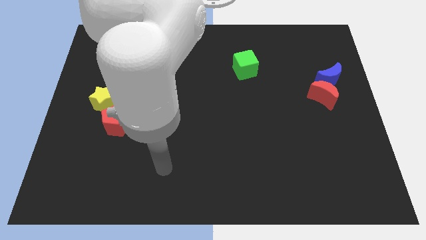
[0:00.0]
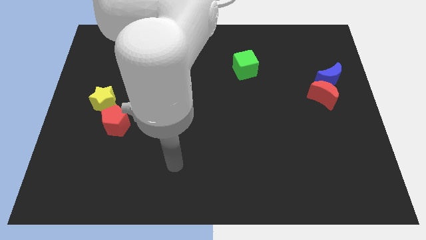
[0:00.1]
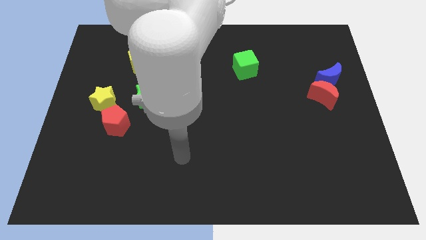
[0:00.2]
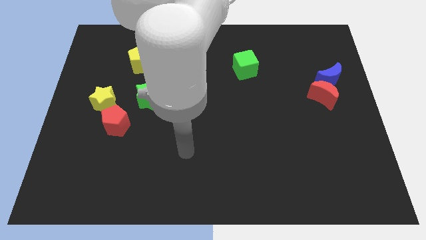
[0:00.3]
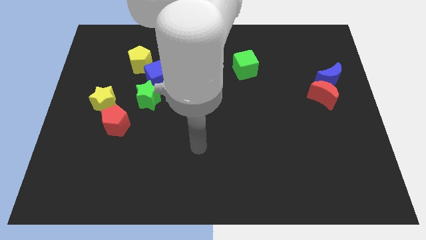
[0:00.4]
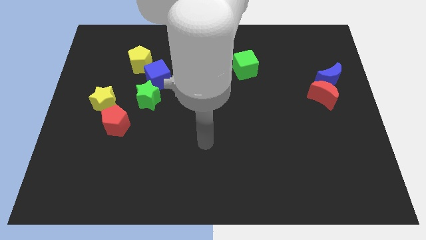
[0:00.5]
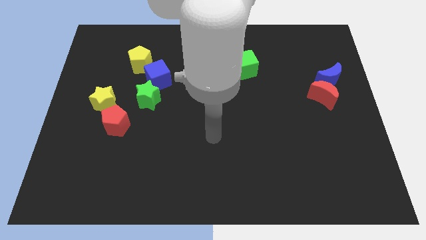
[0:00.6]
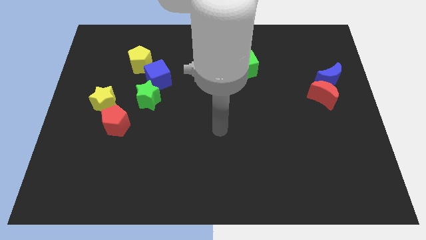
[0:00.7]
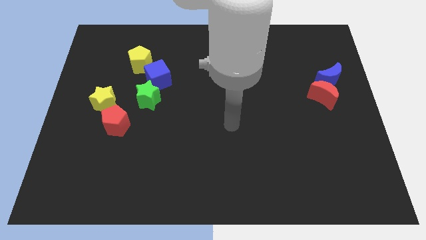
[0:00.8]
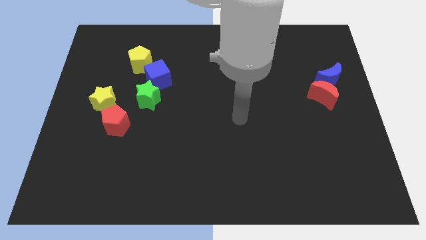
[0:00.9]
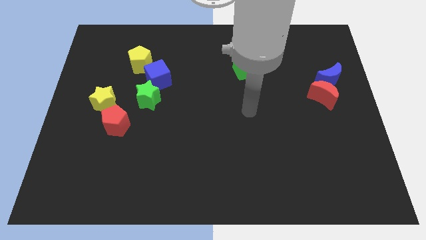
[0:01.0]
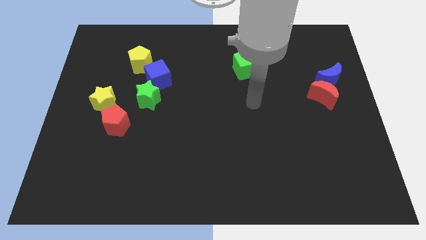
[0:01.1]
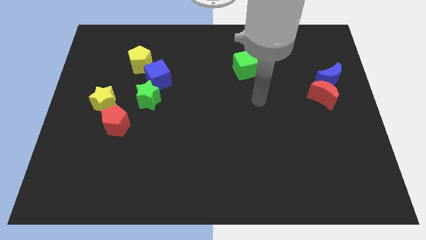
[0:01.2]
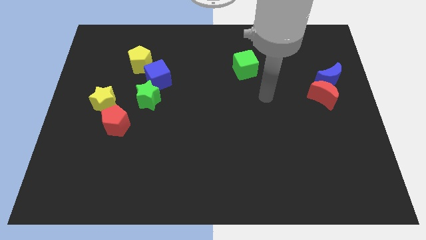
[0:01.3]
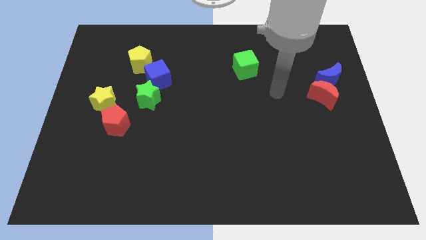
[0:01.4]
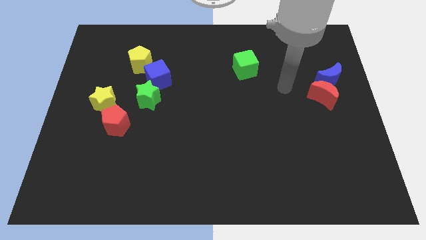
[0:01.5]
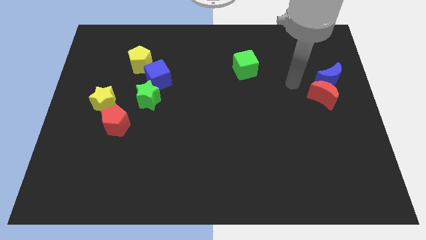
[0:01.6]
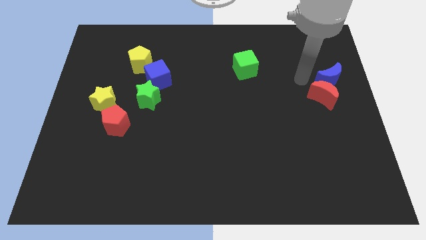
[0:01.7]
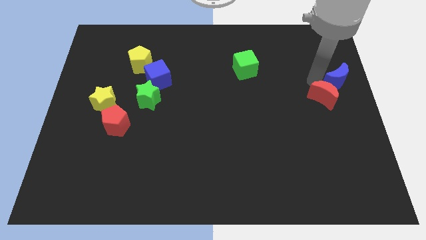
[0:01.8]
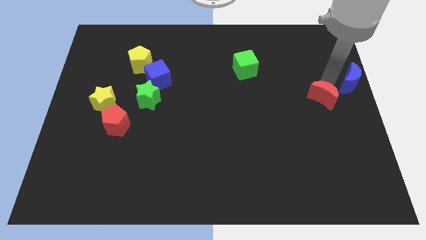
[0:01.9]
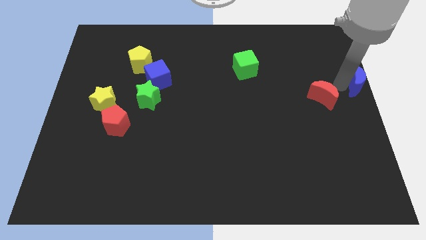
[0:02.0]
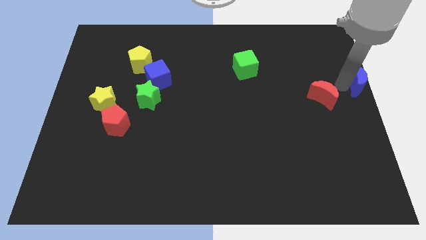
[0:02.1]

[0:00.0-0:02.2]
separate the red moon from the blue moon

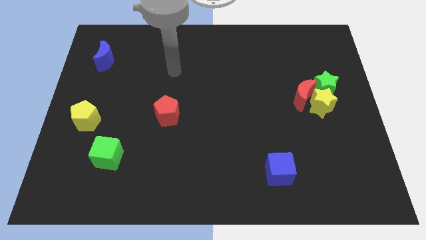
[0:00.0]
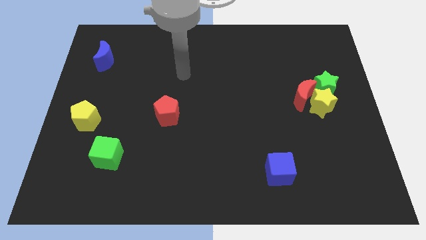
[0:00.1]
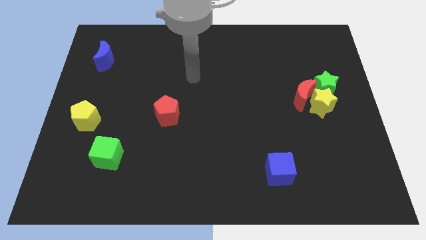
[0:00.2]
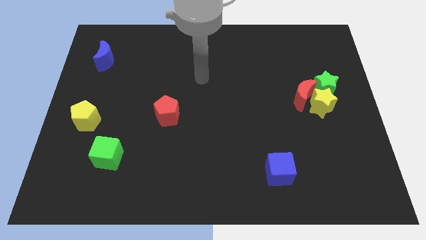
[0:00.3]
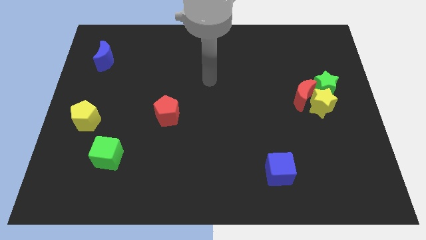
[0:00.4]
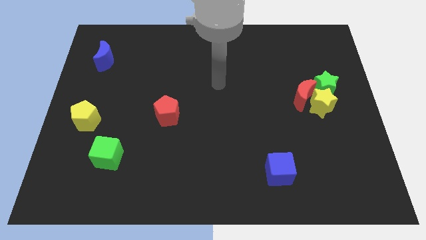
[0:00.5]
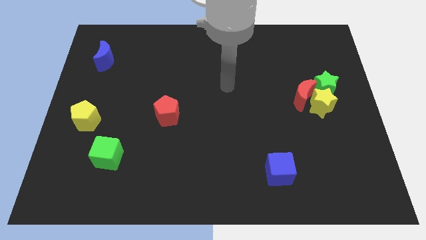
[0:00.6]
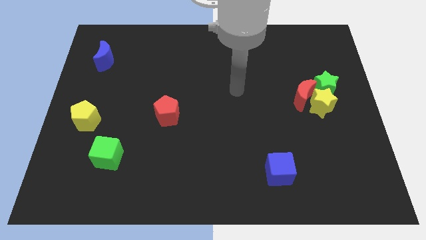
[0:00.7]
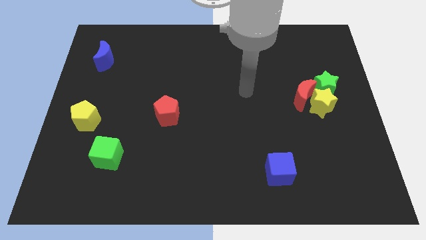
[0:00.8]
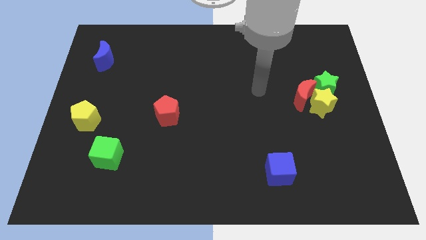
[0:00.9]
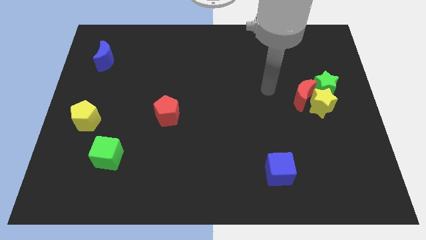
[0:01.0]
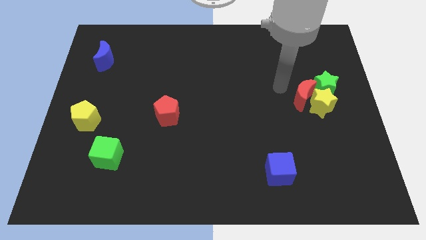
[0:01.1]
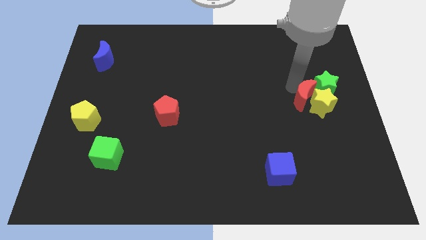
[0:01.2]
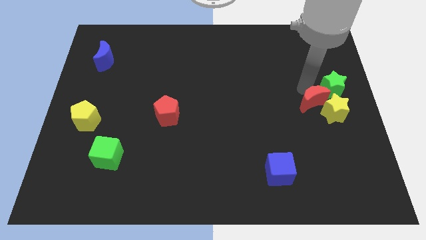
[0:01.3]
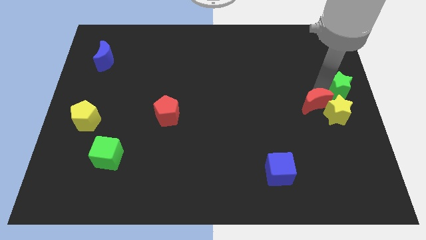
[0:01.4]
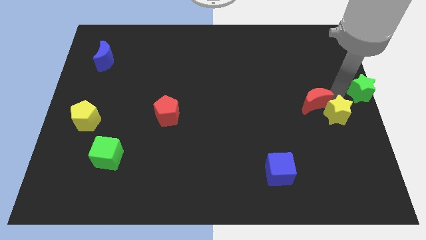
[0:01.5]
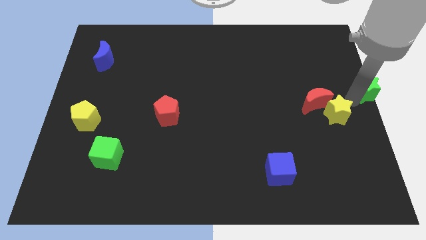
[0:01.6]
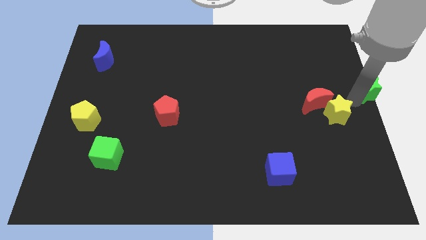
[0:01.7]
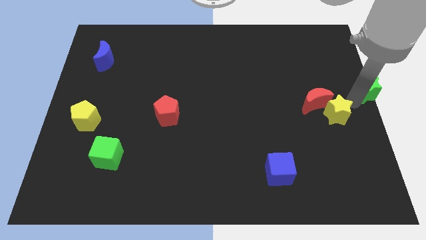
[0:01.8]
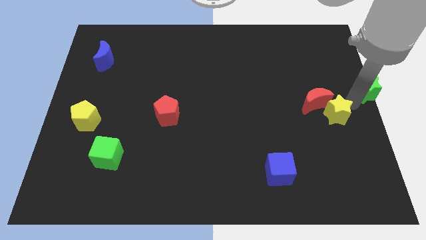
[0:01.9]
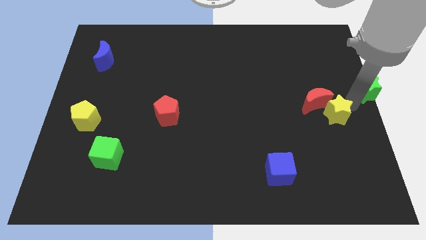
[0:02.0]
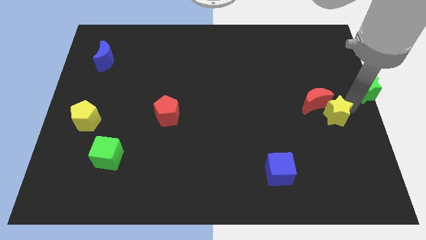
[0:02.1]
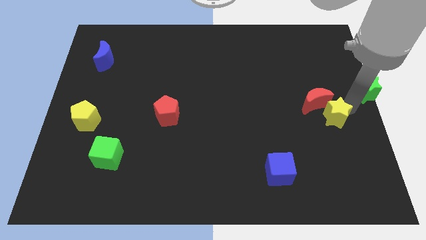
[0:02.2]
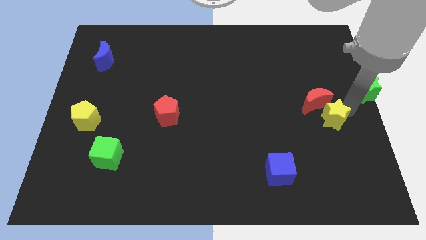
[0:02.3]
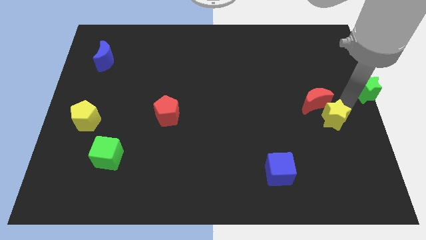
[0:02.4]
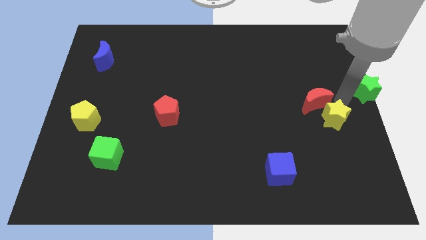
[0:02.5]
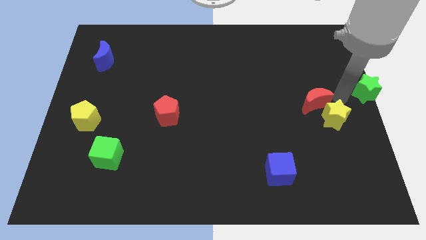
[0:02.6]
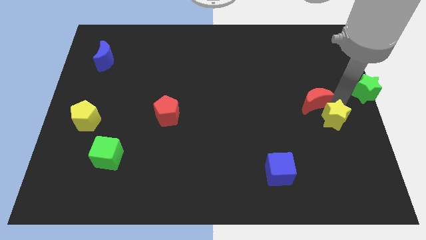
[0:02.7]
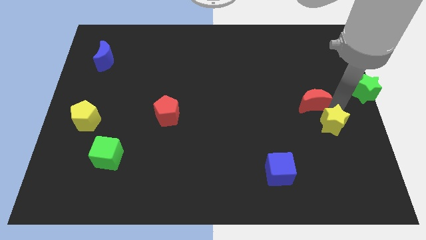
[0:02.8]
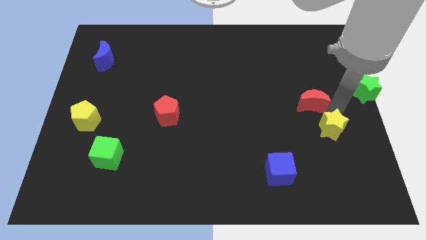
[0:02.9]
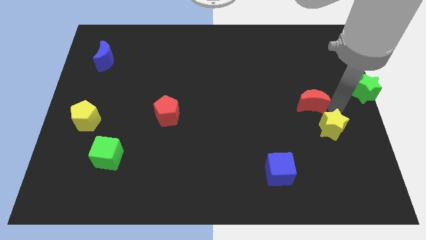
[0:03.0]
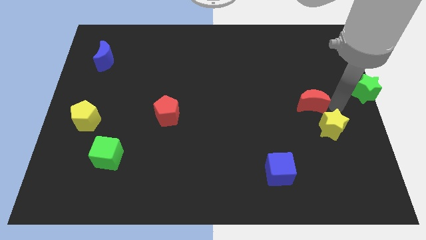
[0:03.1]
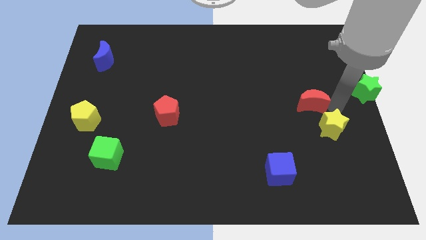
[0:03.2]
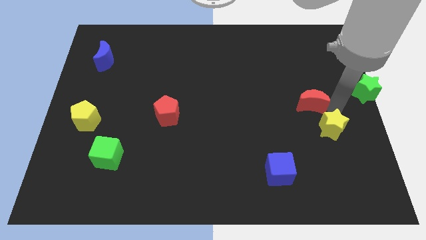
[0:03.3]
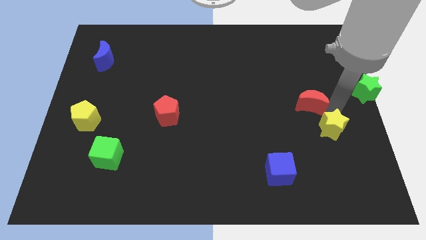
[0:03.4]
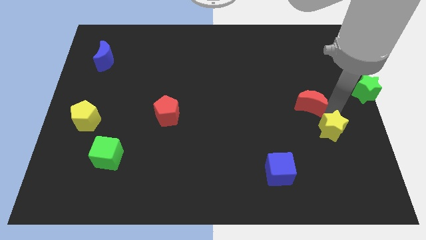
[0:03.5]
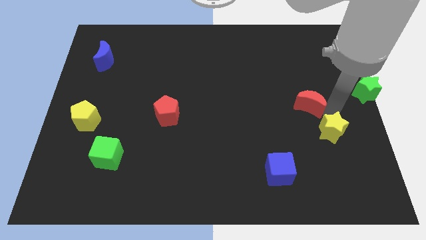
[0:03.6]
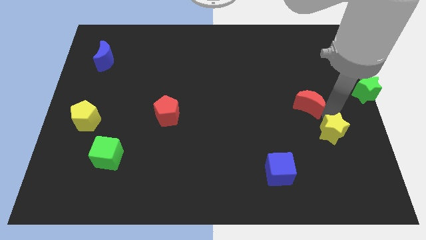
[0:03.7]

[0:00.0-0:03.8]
separate the yellow star from the red moon and green star

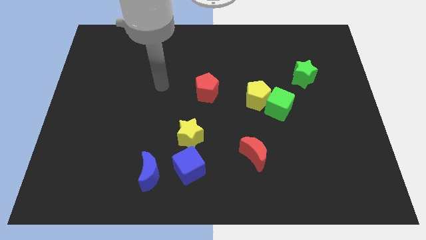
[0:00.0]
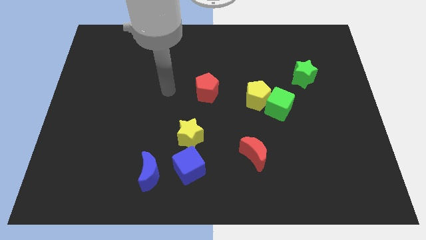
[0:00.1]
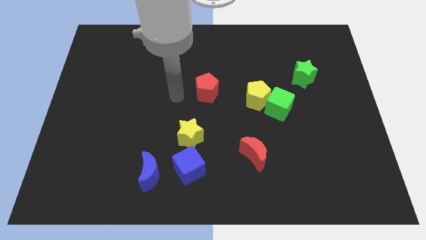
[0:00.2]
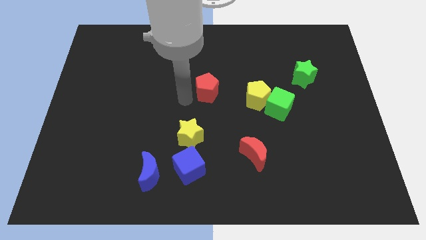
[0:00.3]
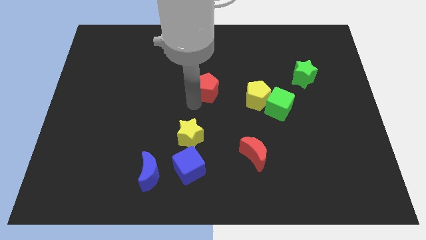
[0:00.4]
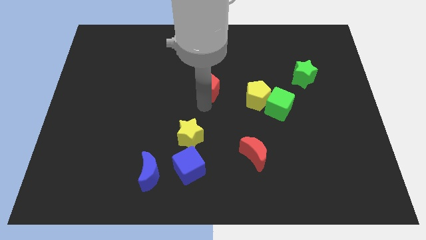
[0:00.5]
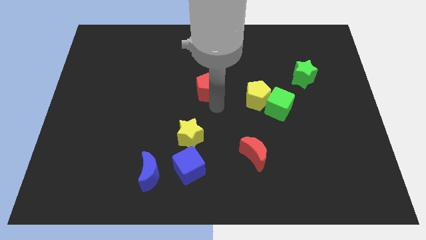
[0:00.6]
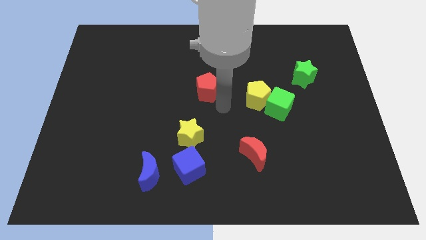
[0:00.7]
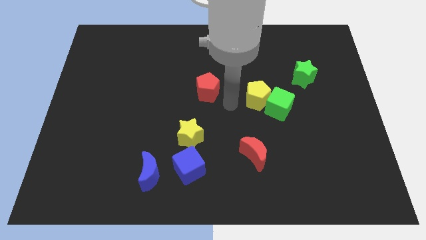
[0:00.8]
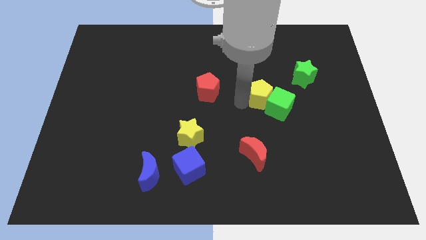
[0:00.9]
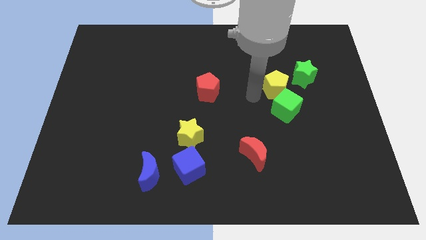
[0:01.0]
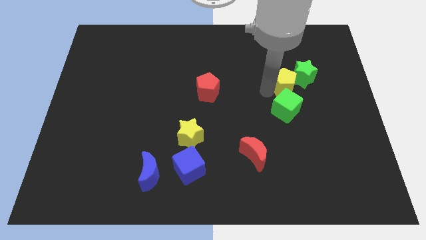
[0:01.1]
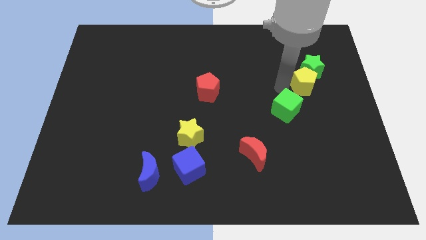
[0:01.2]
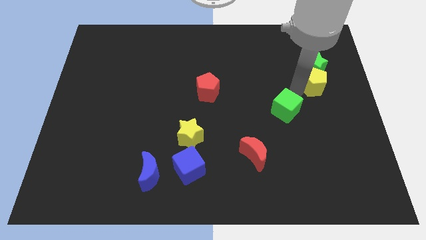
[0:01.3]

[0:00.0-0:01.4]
move the green cube away from the yellow pentagon

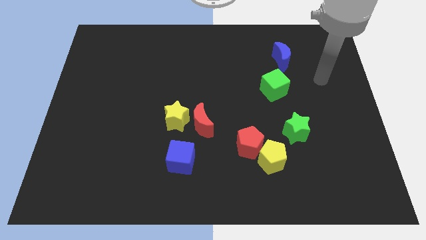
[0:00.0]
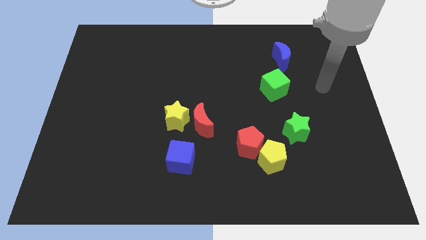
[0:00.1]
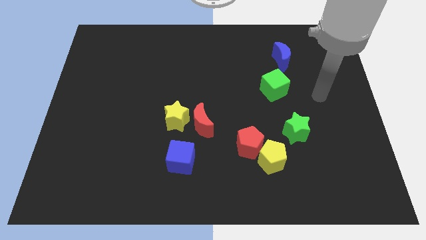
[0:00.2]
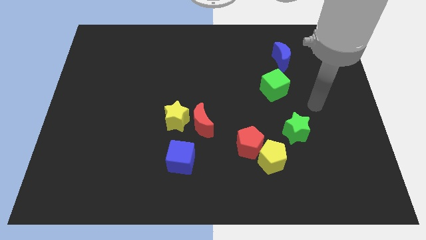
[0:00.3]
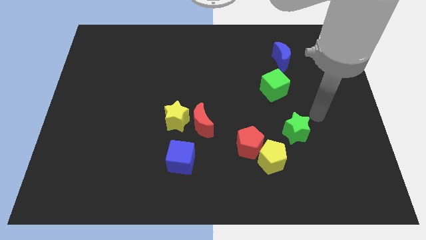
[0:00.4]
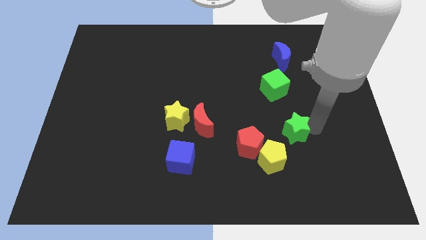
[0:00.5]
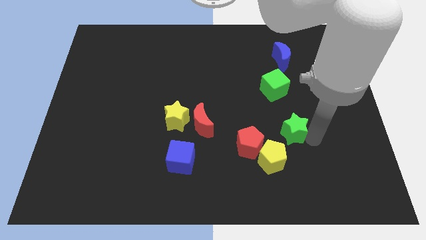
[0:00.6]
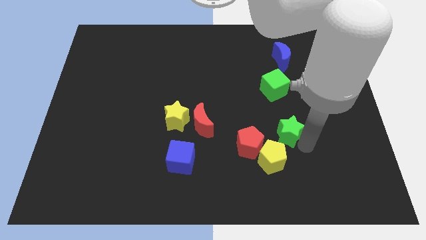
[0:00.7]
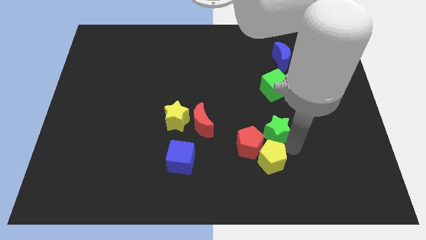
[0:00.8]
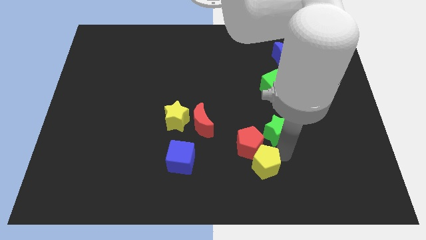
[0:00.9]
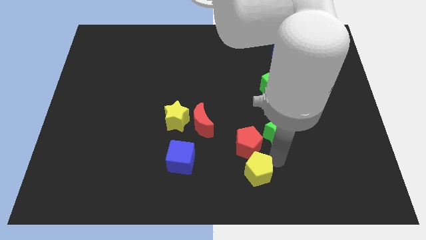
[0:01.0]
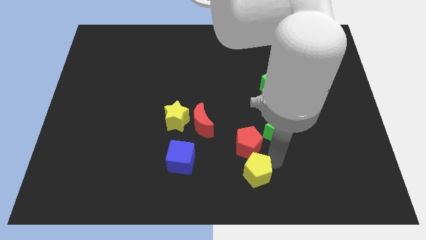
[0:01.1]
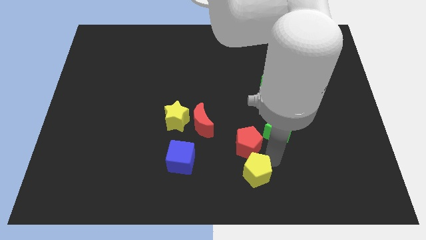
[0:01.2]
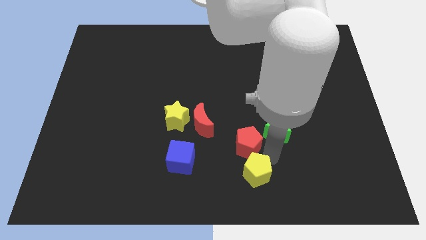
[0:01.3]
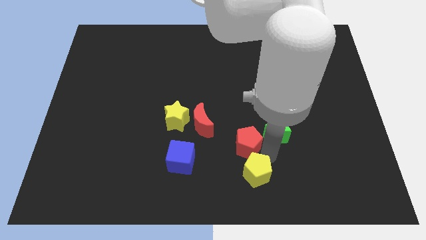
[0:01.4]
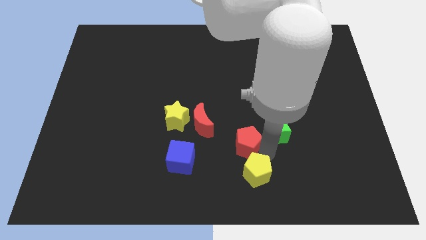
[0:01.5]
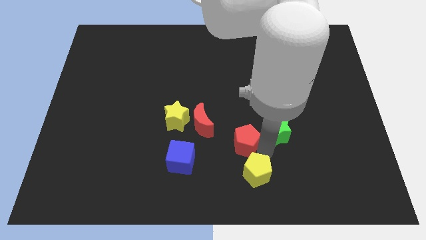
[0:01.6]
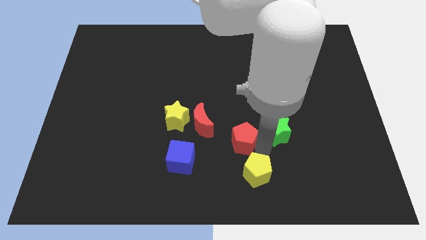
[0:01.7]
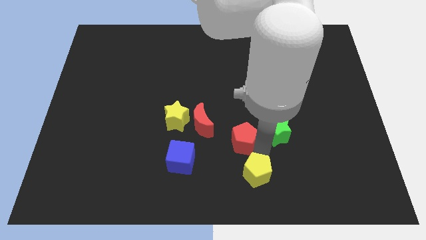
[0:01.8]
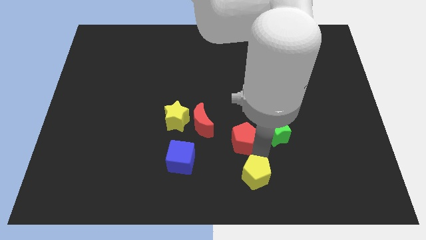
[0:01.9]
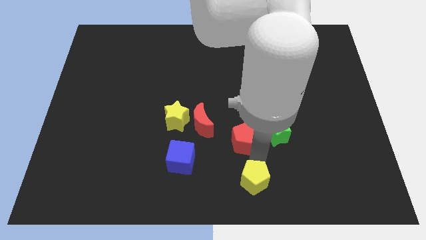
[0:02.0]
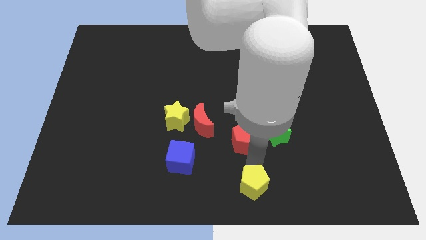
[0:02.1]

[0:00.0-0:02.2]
separate the red pentagon from the yellow pentagon
